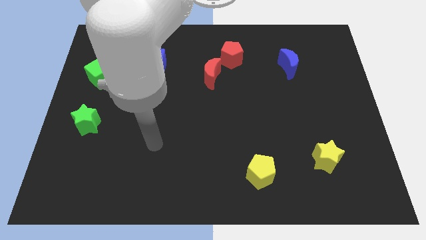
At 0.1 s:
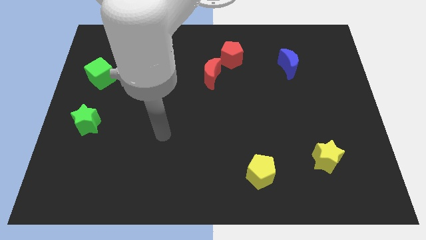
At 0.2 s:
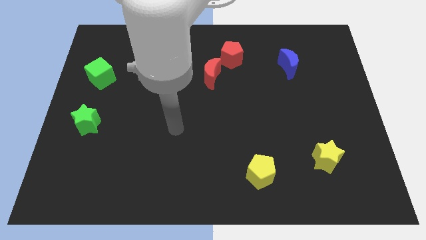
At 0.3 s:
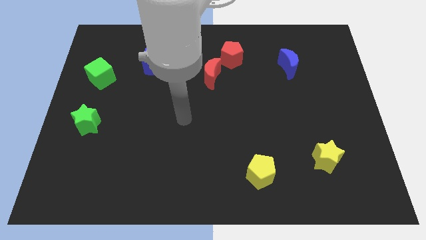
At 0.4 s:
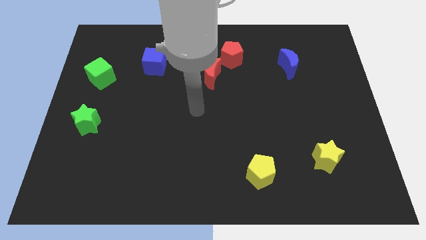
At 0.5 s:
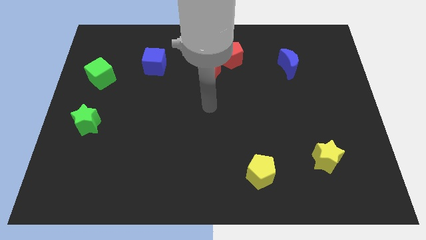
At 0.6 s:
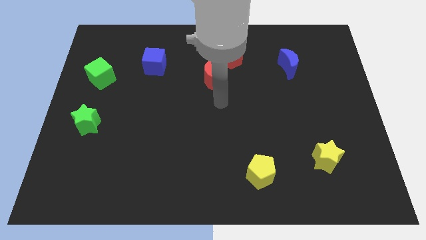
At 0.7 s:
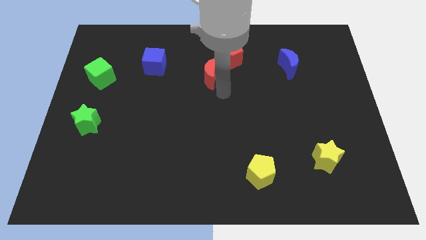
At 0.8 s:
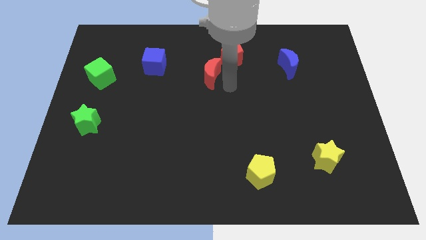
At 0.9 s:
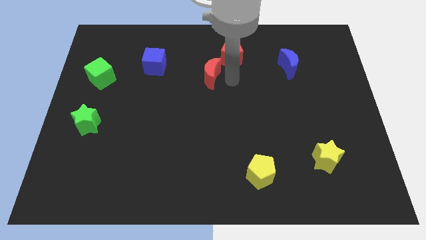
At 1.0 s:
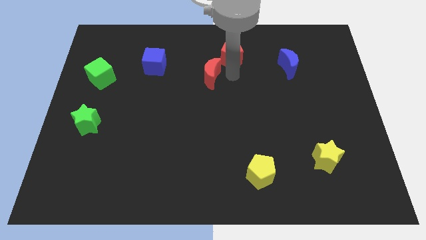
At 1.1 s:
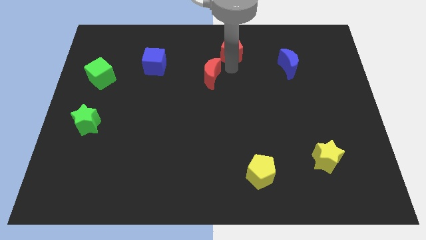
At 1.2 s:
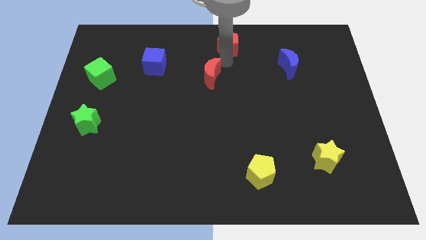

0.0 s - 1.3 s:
move the red moon away from the red pentagon

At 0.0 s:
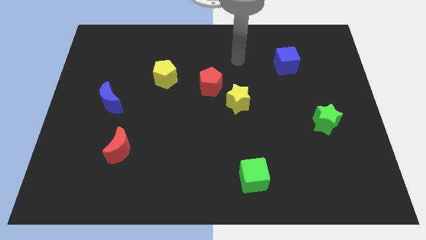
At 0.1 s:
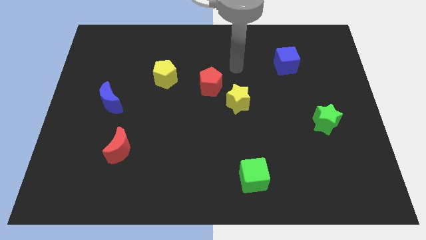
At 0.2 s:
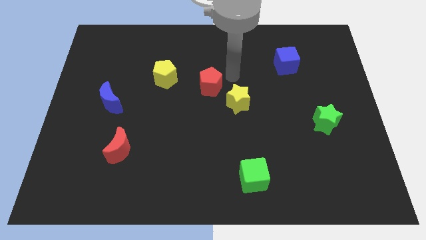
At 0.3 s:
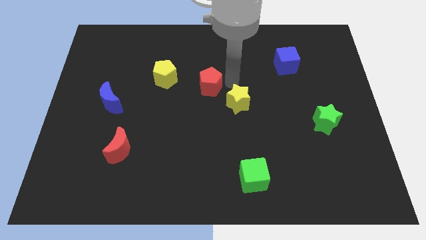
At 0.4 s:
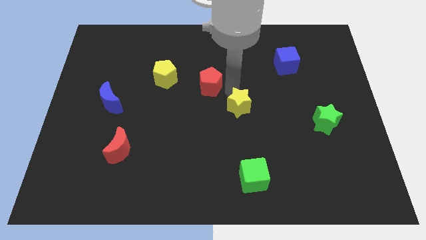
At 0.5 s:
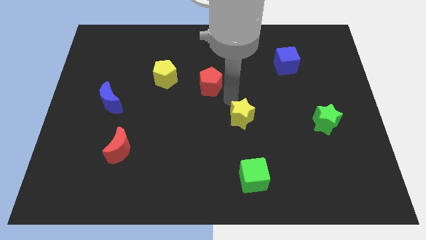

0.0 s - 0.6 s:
pull the red pentagon apart from the yellow star

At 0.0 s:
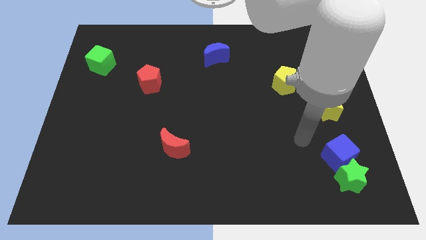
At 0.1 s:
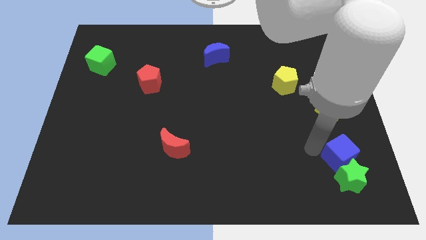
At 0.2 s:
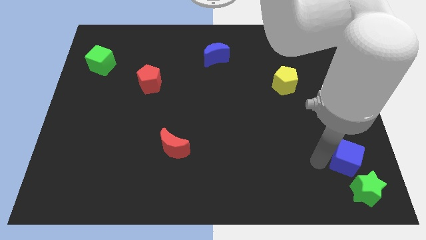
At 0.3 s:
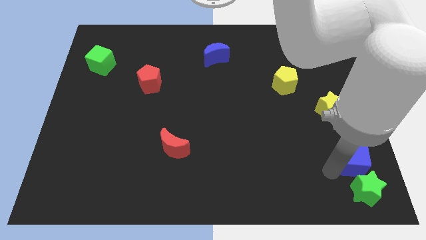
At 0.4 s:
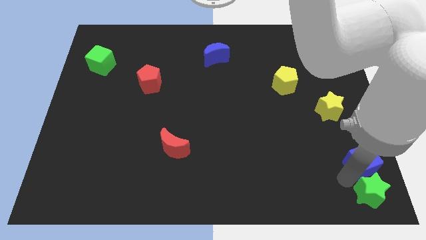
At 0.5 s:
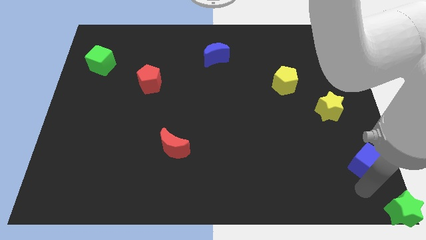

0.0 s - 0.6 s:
separate the blue cube from the green star

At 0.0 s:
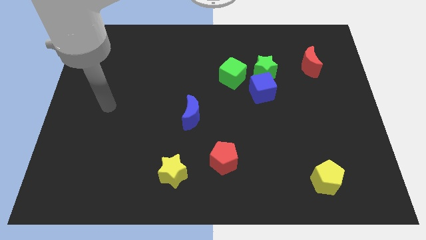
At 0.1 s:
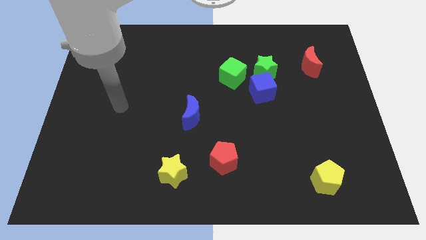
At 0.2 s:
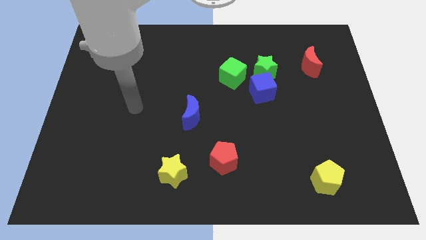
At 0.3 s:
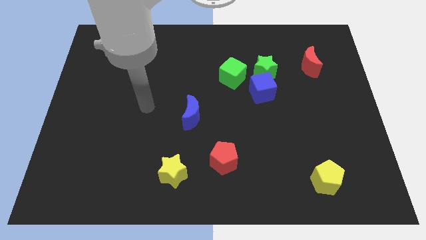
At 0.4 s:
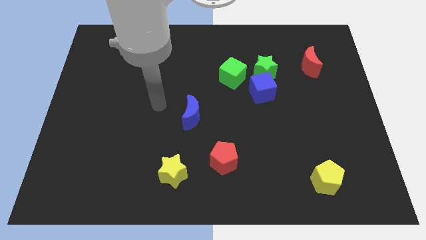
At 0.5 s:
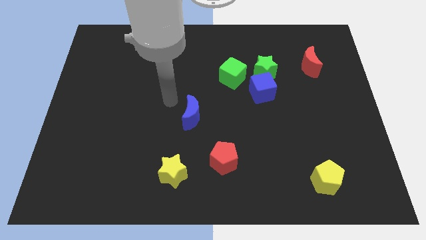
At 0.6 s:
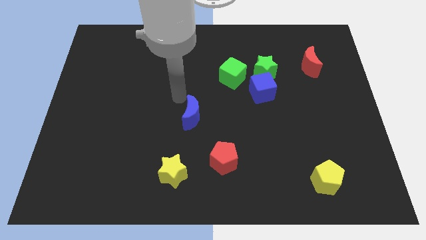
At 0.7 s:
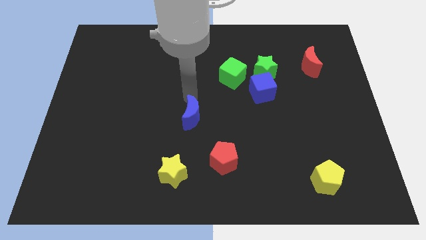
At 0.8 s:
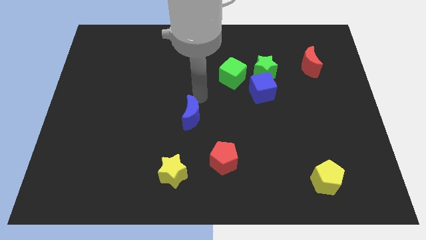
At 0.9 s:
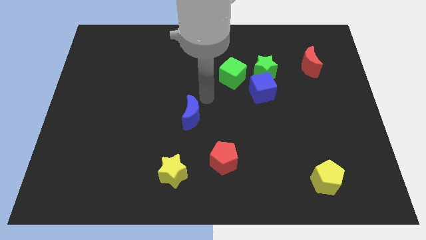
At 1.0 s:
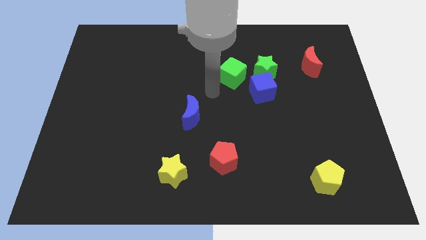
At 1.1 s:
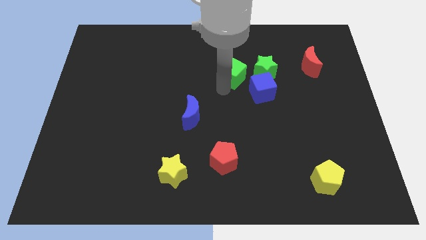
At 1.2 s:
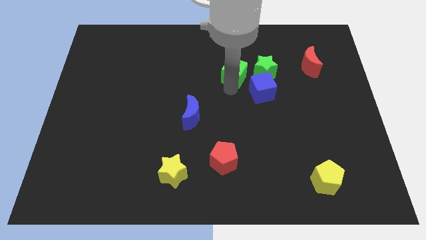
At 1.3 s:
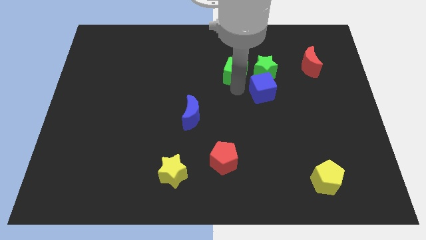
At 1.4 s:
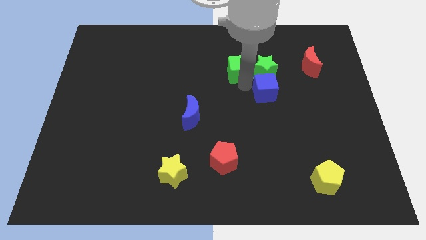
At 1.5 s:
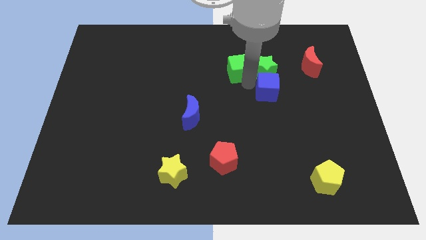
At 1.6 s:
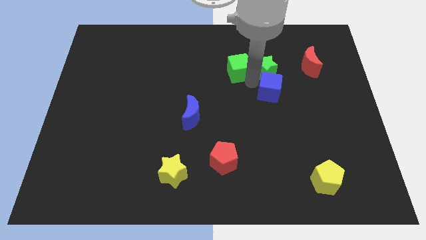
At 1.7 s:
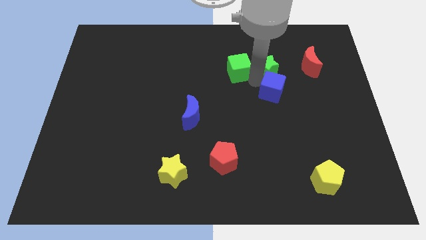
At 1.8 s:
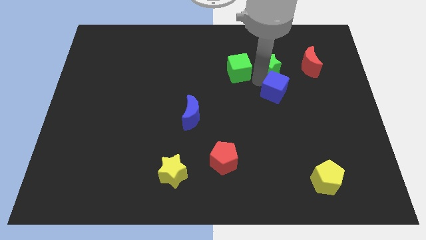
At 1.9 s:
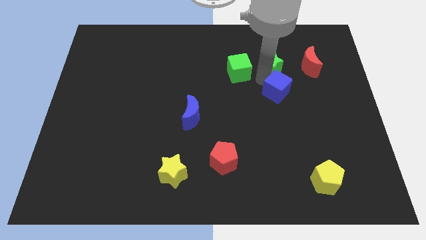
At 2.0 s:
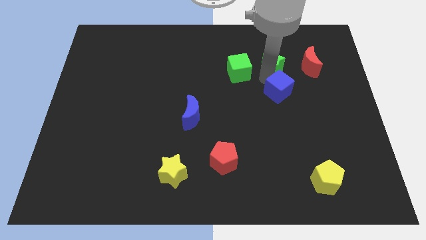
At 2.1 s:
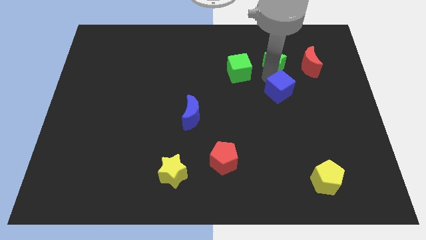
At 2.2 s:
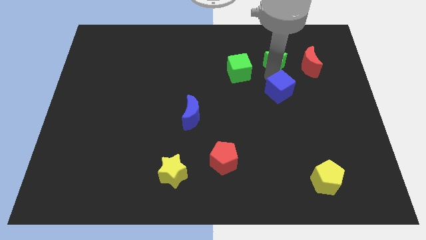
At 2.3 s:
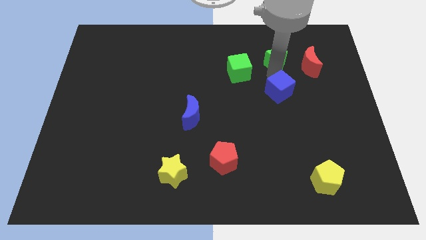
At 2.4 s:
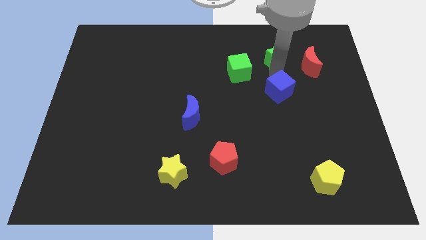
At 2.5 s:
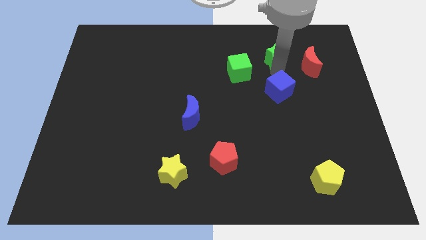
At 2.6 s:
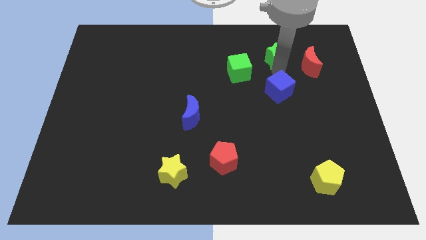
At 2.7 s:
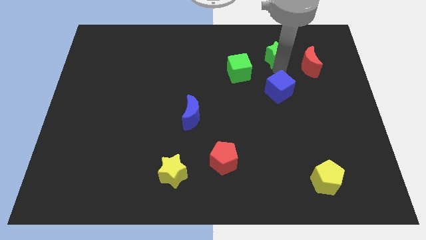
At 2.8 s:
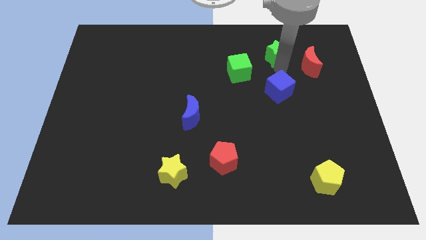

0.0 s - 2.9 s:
separate the green star from the blue cube and green cube

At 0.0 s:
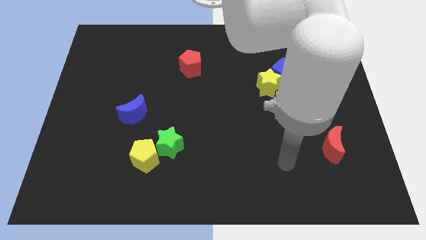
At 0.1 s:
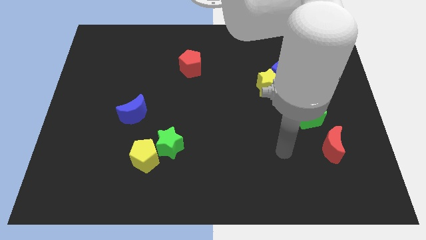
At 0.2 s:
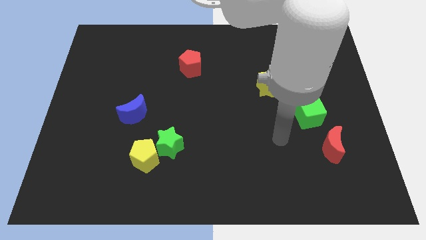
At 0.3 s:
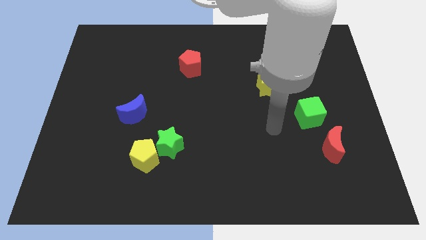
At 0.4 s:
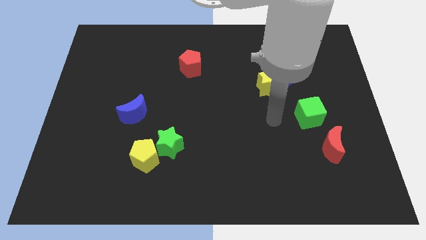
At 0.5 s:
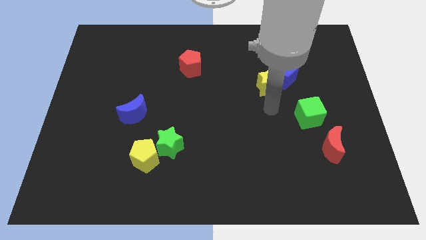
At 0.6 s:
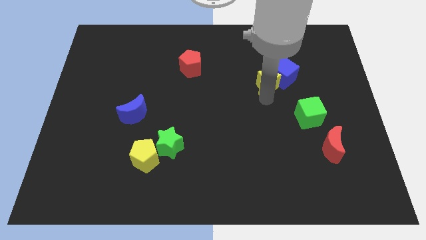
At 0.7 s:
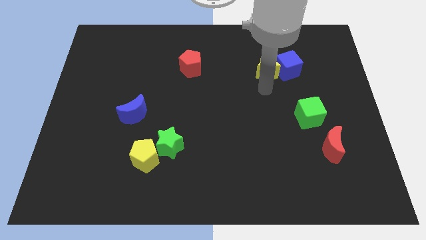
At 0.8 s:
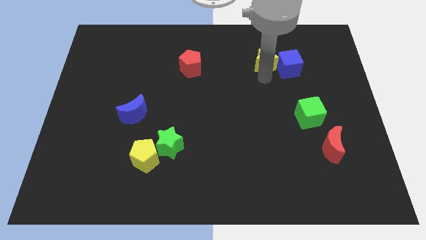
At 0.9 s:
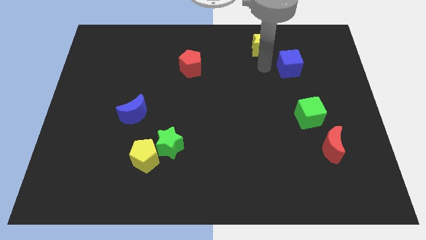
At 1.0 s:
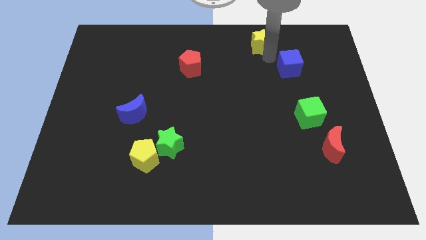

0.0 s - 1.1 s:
pull the blue cube apart from the yellow star

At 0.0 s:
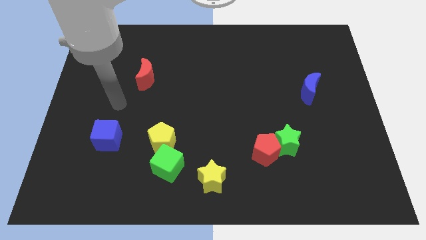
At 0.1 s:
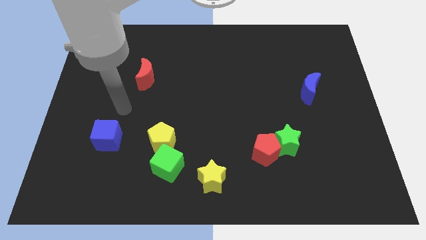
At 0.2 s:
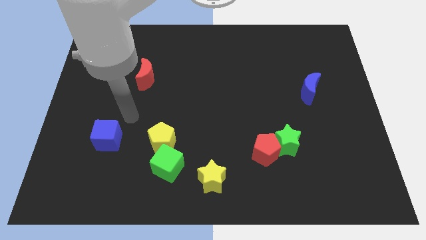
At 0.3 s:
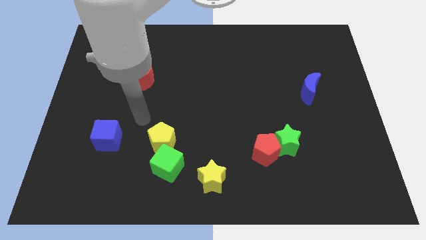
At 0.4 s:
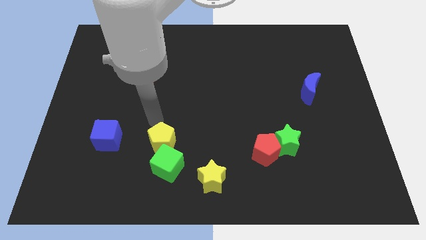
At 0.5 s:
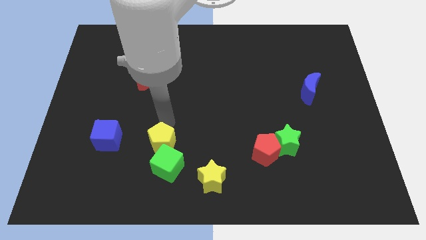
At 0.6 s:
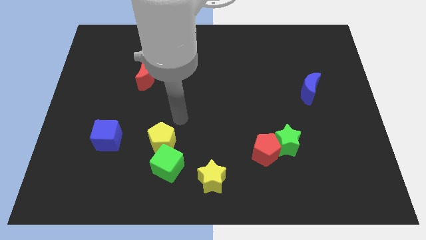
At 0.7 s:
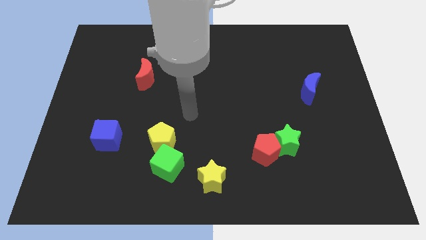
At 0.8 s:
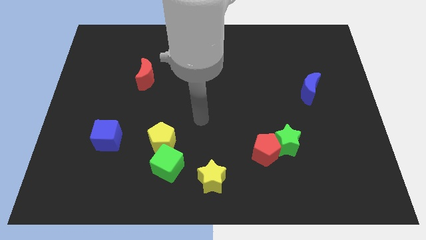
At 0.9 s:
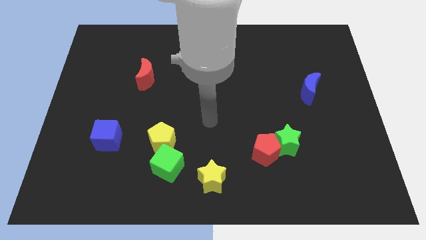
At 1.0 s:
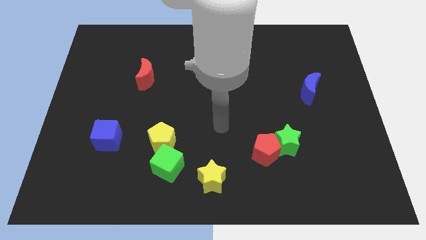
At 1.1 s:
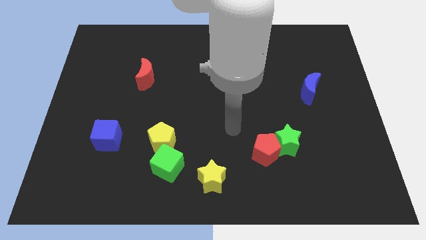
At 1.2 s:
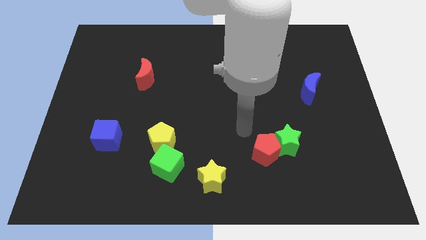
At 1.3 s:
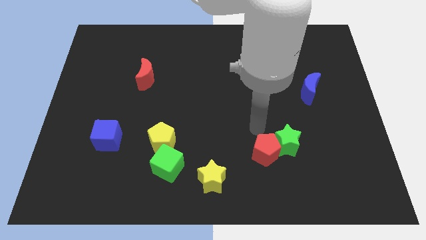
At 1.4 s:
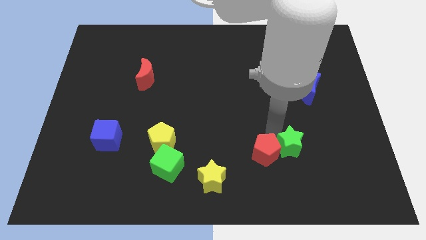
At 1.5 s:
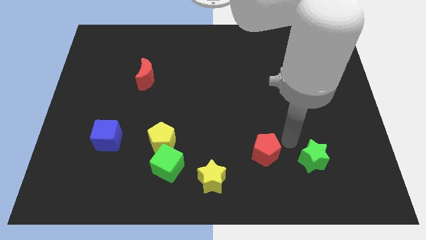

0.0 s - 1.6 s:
separate the red pentagon from the green star

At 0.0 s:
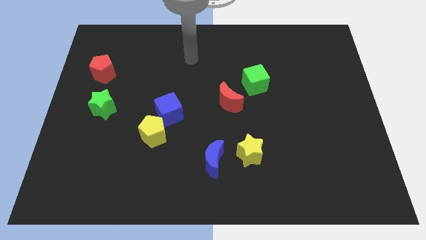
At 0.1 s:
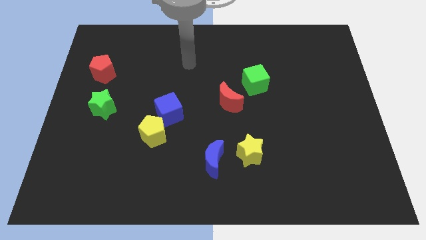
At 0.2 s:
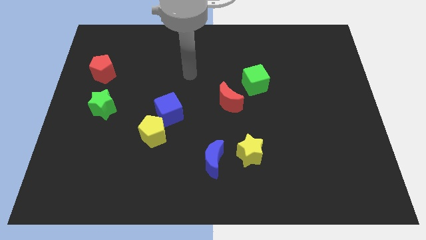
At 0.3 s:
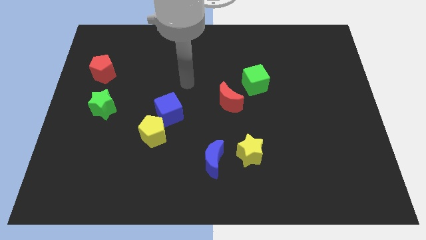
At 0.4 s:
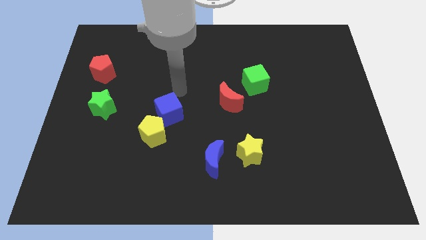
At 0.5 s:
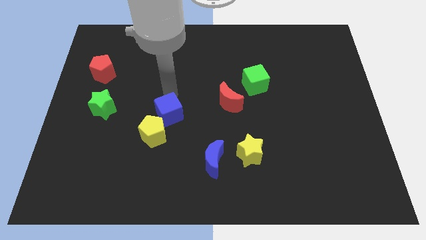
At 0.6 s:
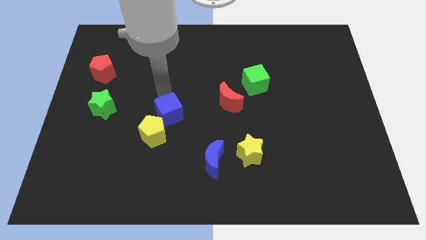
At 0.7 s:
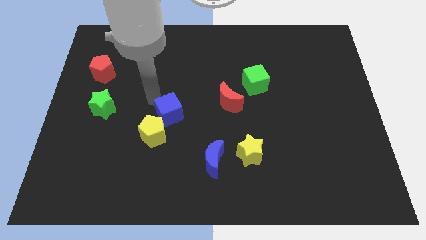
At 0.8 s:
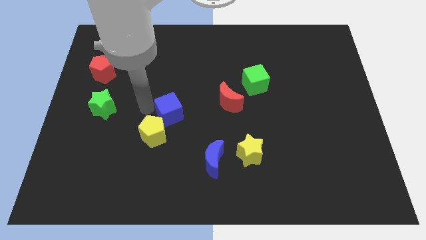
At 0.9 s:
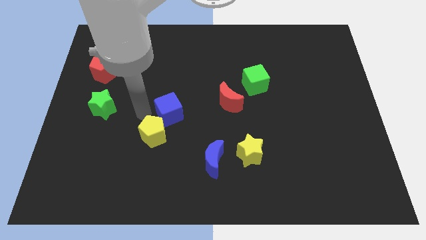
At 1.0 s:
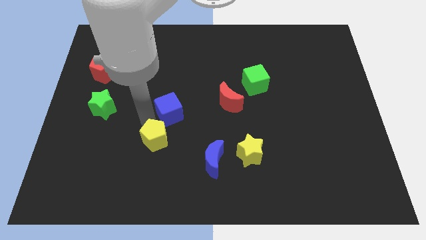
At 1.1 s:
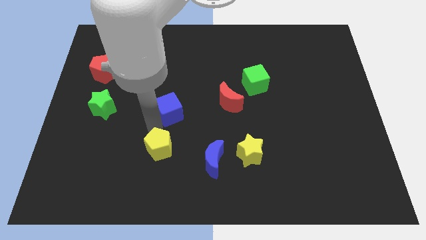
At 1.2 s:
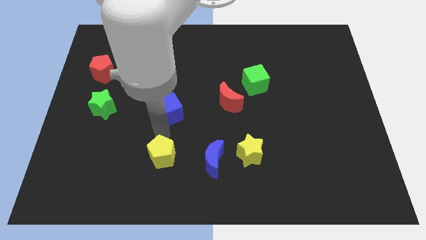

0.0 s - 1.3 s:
separate the blue cube from the yellow pentagon

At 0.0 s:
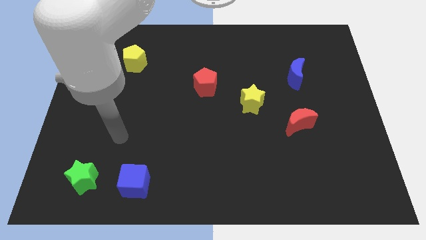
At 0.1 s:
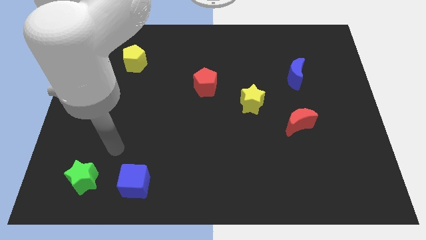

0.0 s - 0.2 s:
move the blue cube away from the green star
